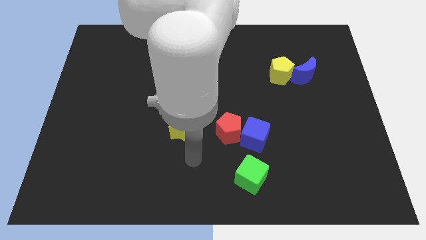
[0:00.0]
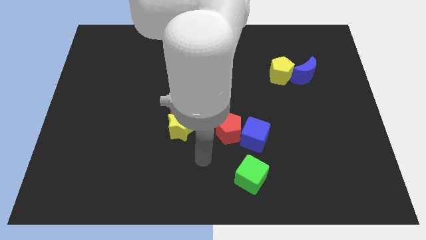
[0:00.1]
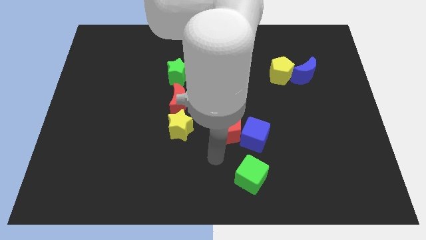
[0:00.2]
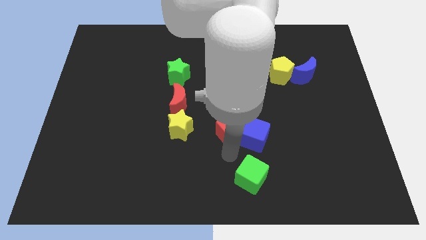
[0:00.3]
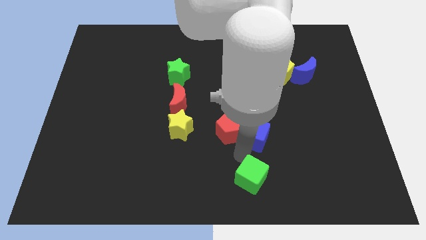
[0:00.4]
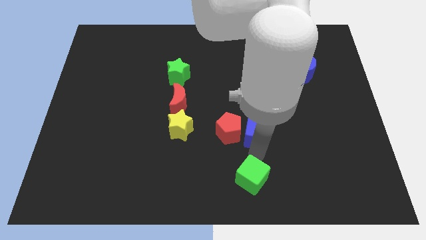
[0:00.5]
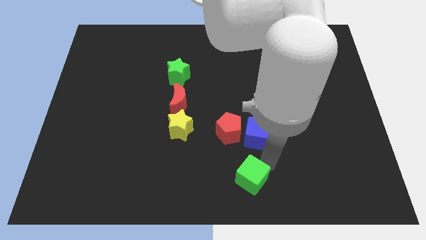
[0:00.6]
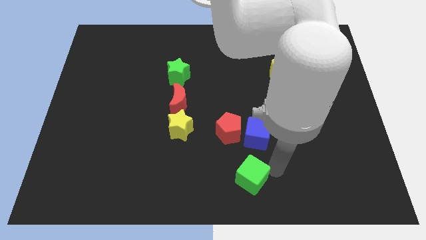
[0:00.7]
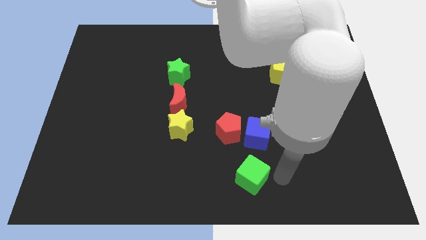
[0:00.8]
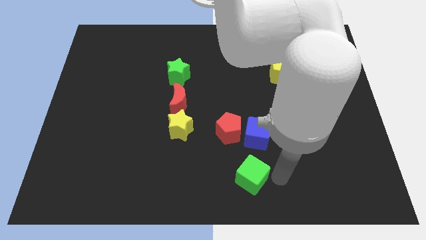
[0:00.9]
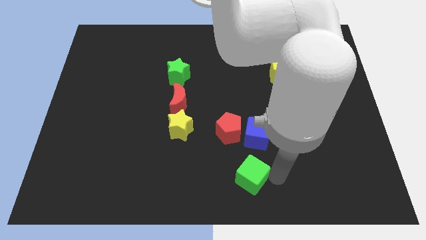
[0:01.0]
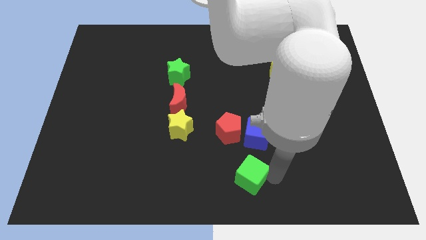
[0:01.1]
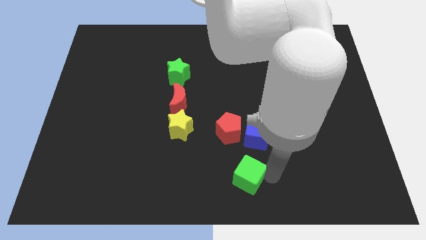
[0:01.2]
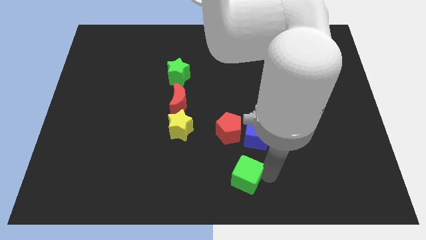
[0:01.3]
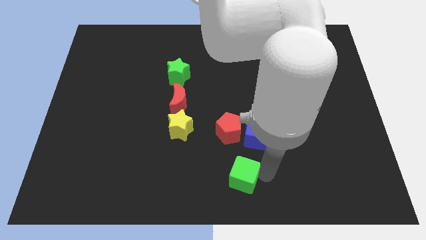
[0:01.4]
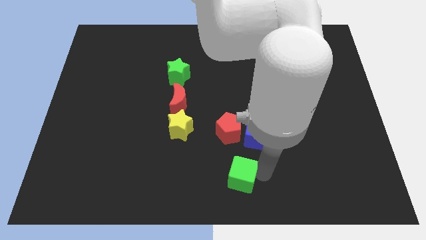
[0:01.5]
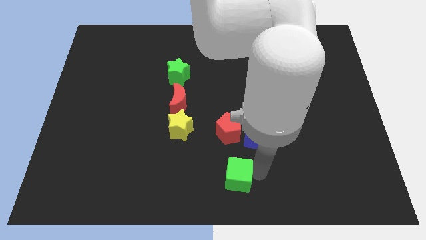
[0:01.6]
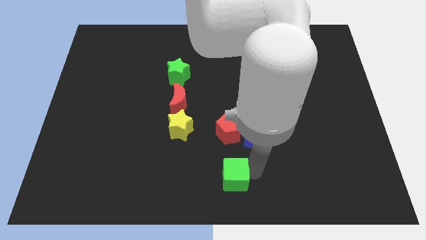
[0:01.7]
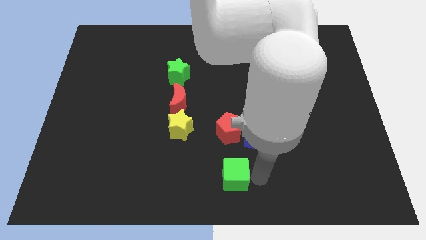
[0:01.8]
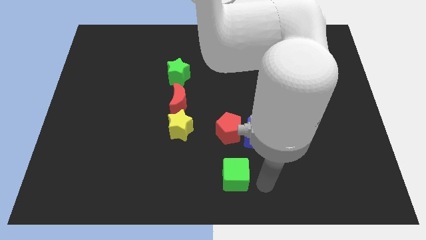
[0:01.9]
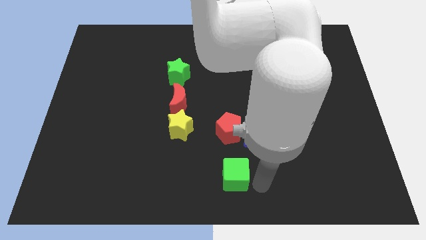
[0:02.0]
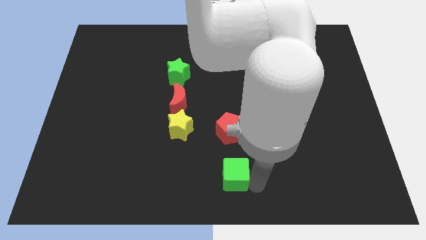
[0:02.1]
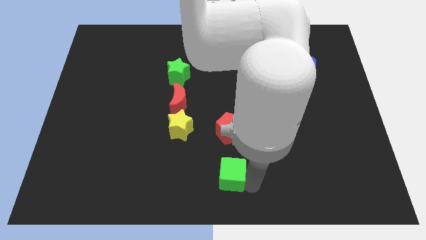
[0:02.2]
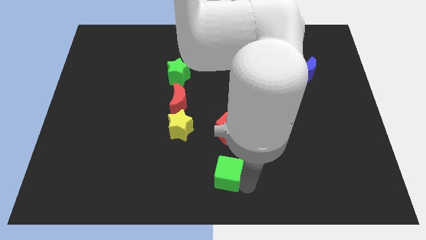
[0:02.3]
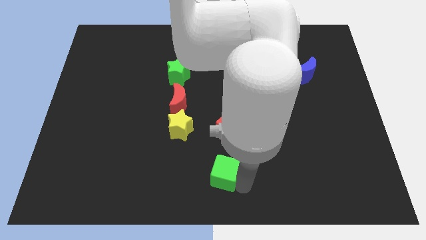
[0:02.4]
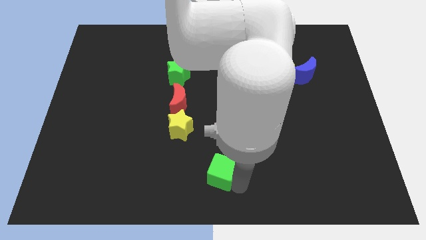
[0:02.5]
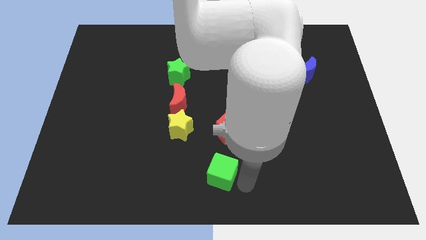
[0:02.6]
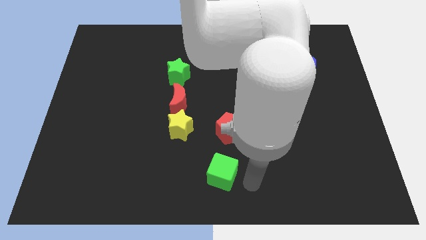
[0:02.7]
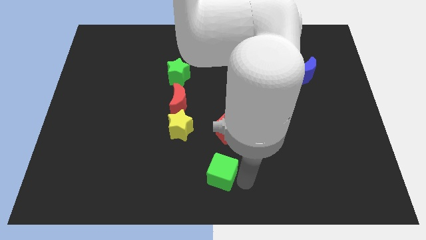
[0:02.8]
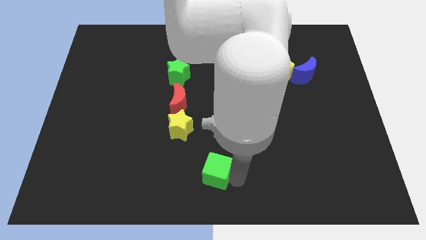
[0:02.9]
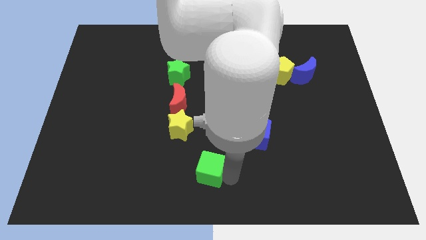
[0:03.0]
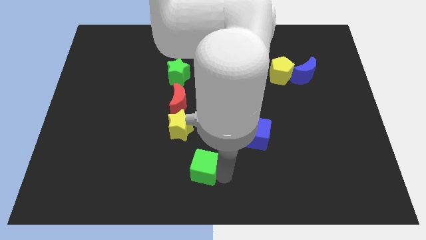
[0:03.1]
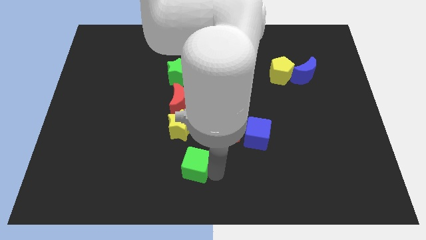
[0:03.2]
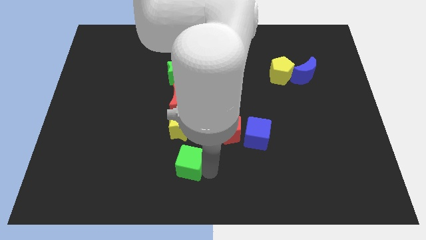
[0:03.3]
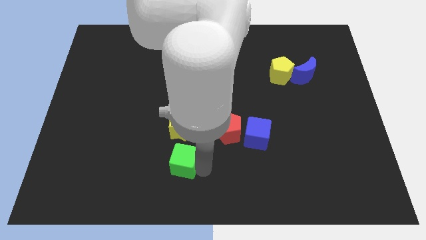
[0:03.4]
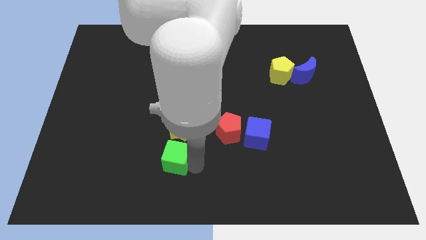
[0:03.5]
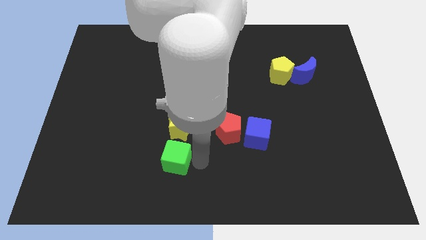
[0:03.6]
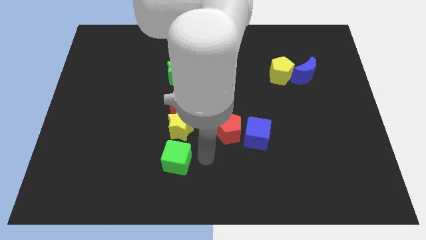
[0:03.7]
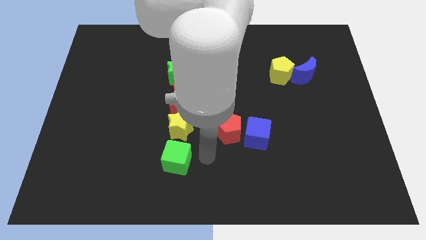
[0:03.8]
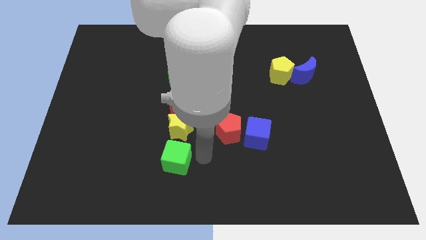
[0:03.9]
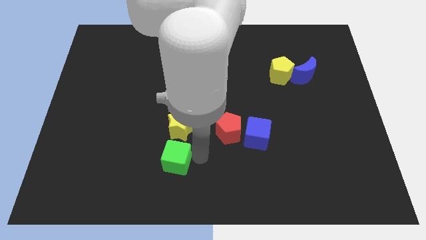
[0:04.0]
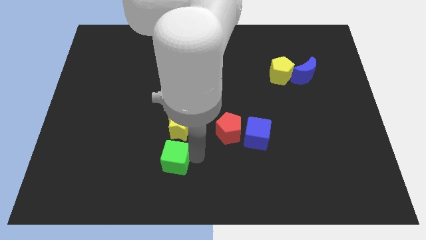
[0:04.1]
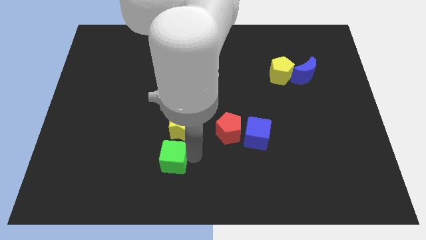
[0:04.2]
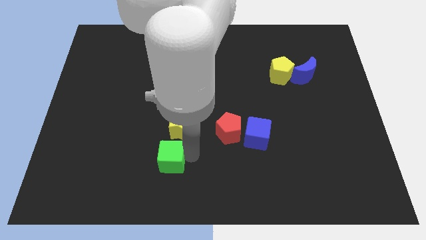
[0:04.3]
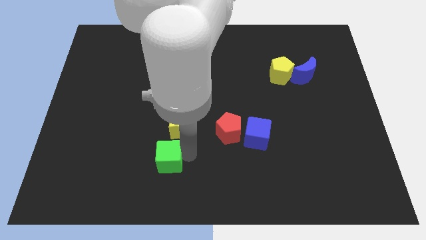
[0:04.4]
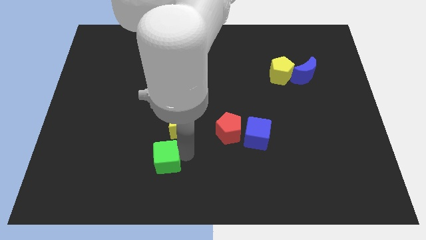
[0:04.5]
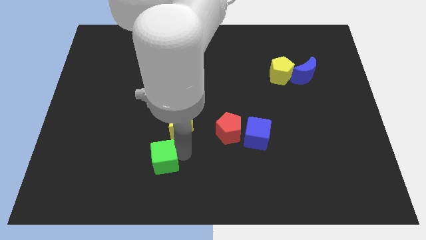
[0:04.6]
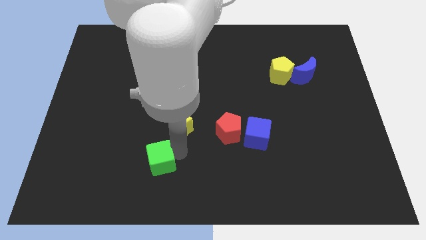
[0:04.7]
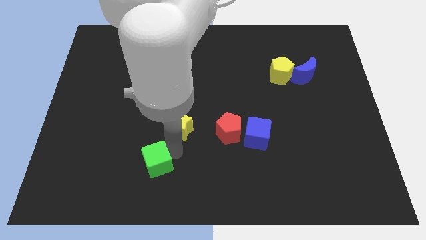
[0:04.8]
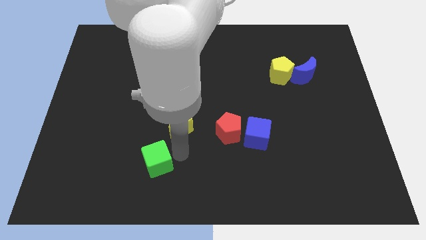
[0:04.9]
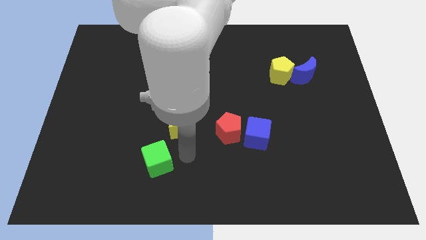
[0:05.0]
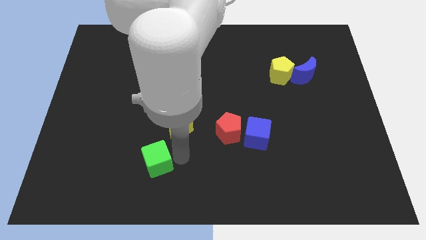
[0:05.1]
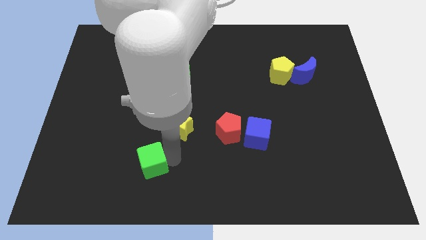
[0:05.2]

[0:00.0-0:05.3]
slide the green cube left

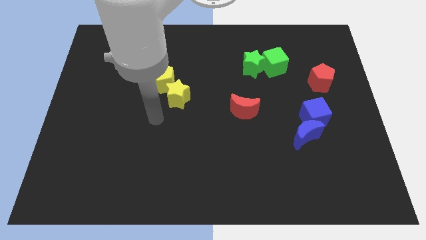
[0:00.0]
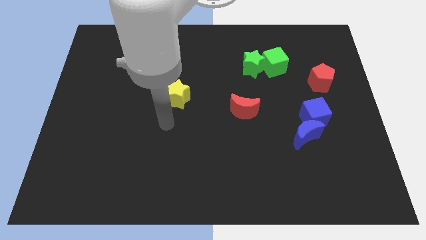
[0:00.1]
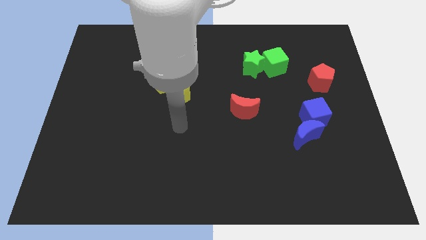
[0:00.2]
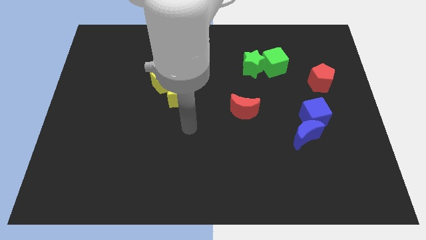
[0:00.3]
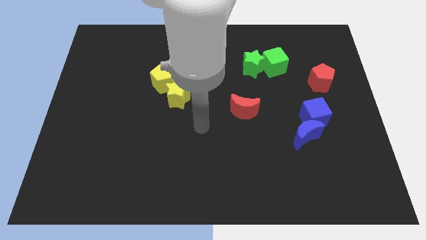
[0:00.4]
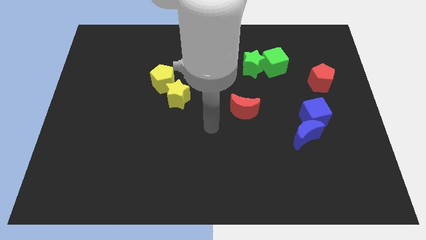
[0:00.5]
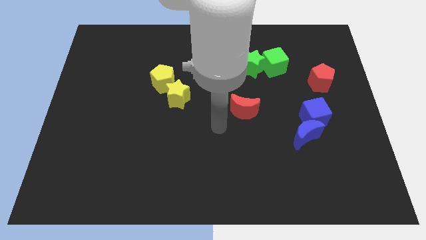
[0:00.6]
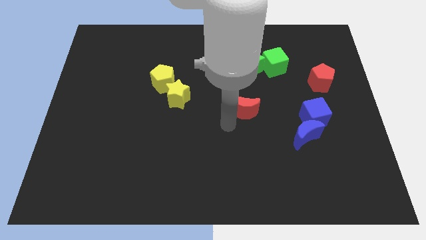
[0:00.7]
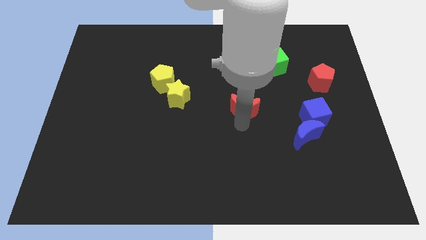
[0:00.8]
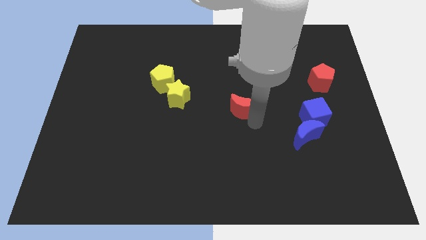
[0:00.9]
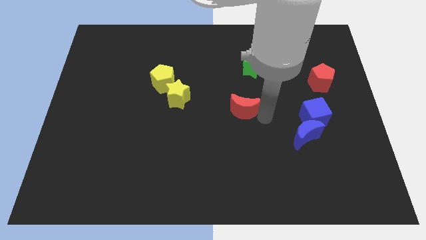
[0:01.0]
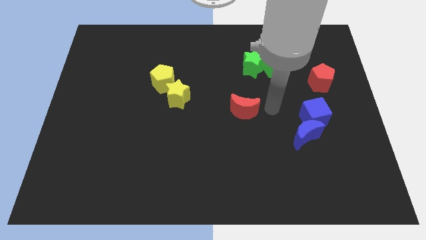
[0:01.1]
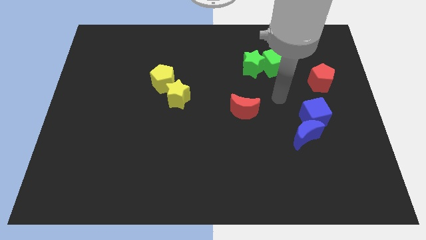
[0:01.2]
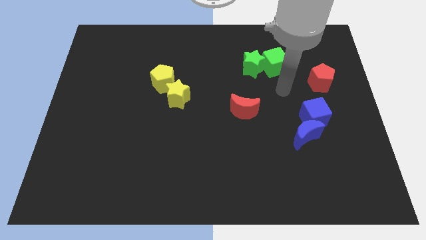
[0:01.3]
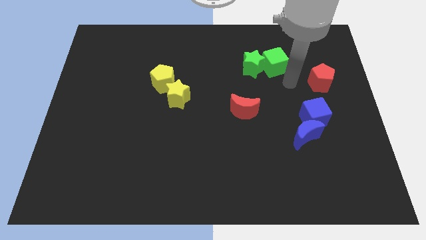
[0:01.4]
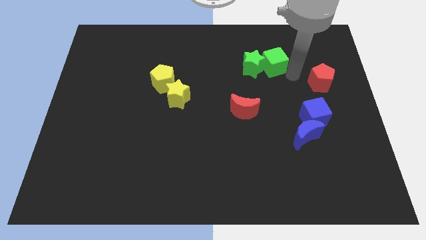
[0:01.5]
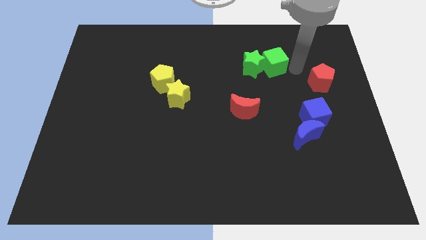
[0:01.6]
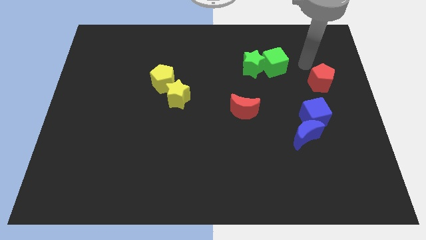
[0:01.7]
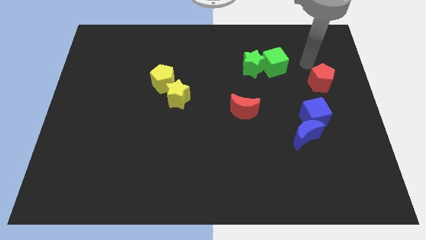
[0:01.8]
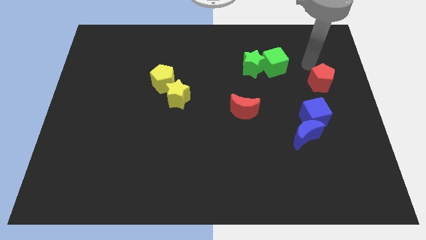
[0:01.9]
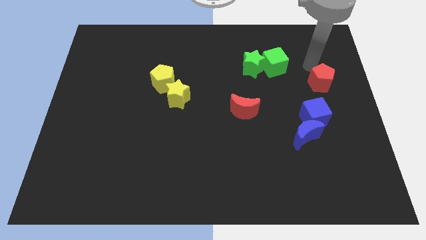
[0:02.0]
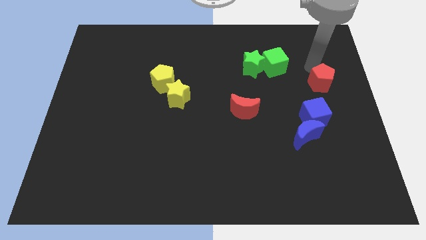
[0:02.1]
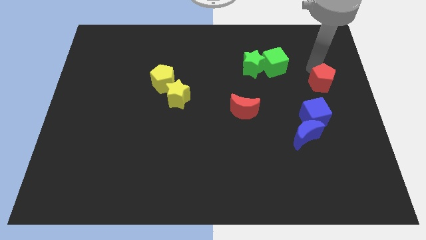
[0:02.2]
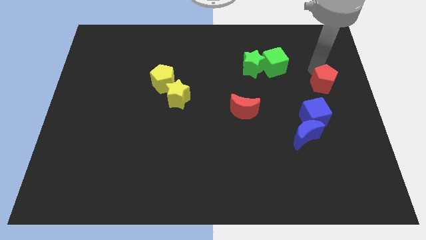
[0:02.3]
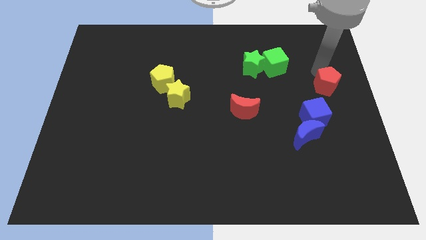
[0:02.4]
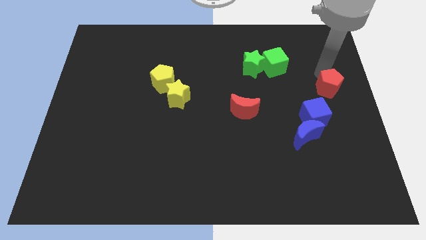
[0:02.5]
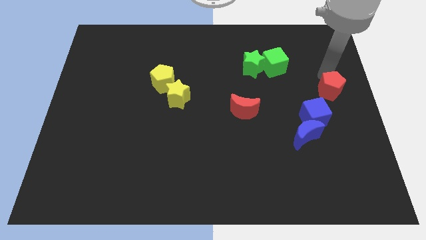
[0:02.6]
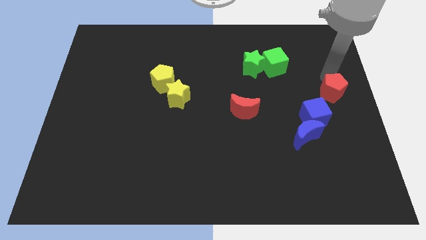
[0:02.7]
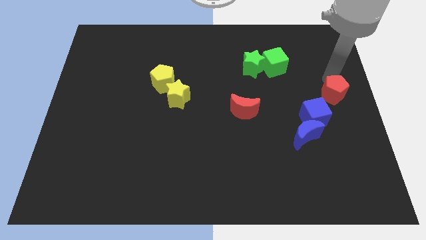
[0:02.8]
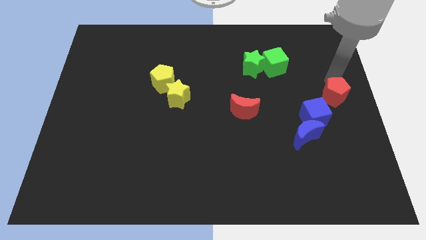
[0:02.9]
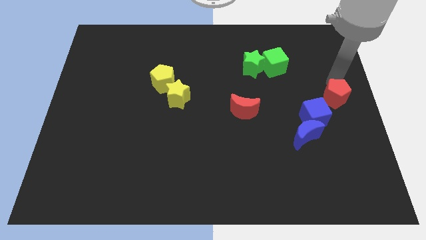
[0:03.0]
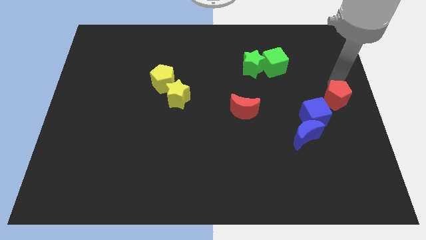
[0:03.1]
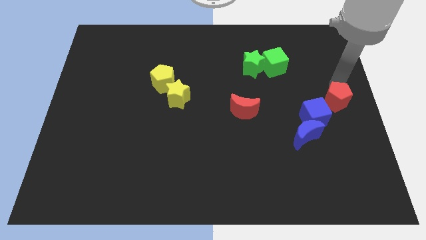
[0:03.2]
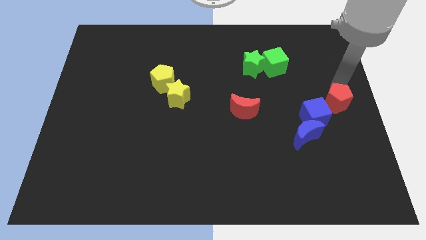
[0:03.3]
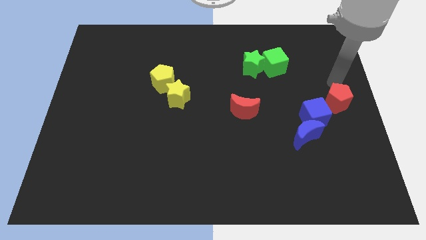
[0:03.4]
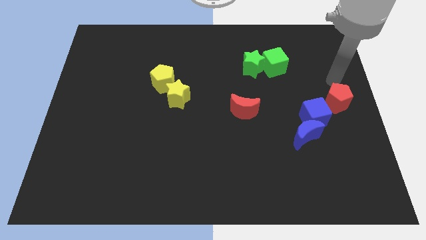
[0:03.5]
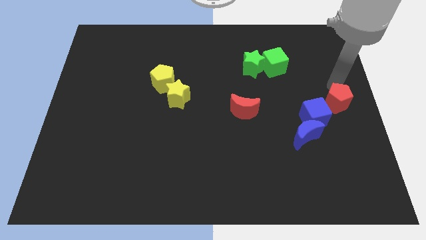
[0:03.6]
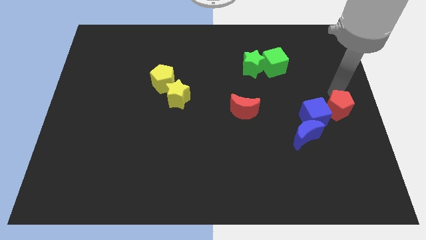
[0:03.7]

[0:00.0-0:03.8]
slide the red pentagon downwards a bit
